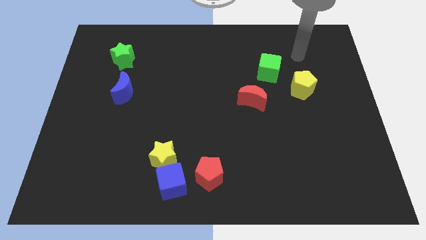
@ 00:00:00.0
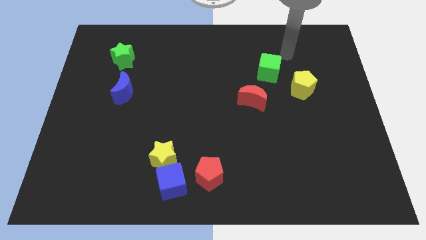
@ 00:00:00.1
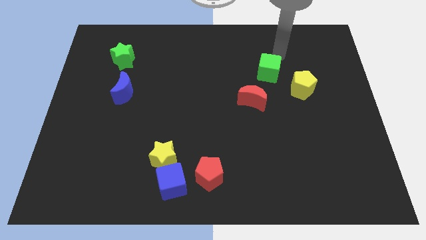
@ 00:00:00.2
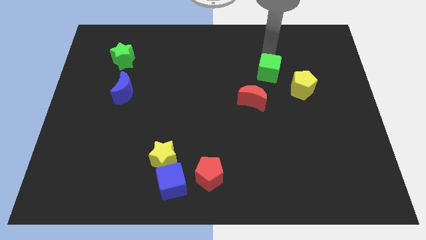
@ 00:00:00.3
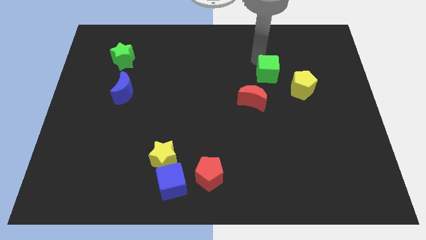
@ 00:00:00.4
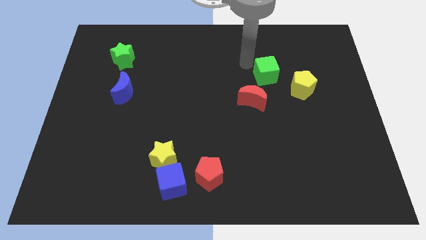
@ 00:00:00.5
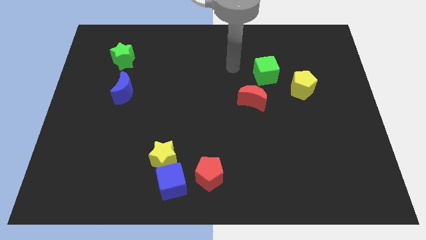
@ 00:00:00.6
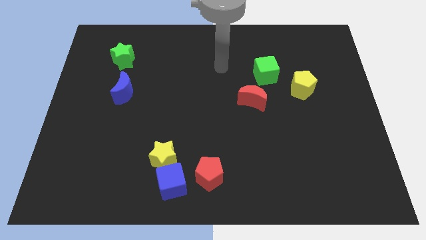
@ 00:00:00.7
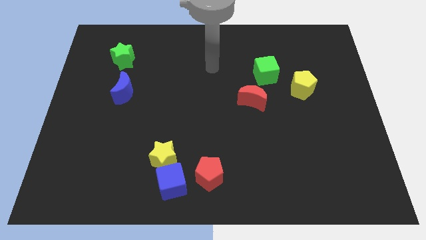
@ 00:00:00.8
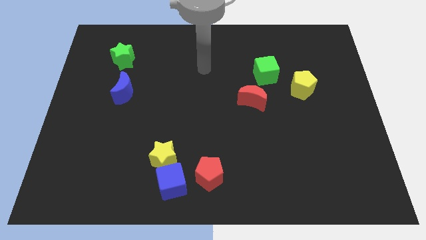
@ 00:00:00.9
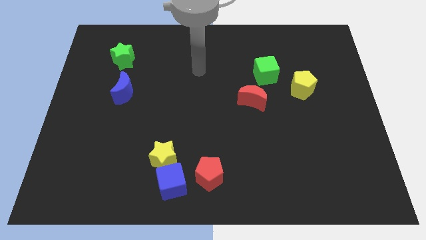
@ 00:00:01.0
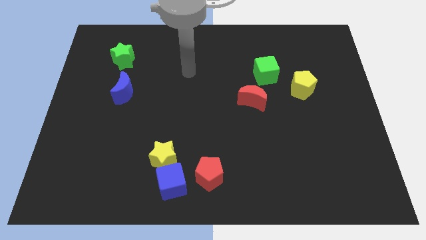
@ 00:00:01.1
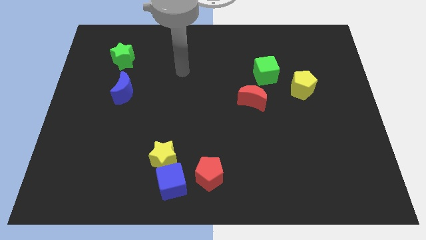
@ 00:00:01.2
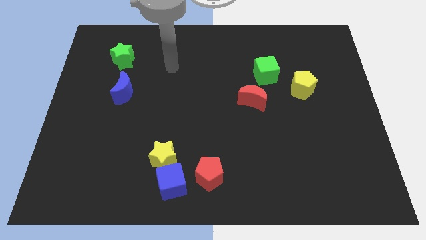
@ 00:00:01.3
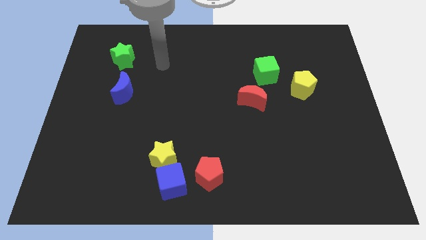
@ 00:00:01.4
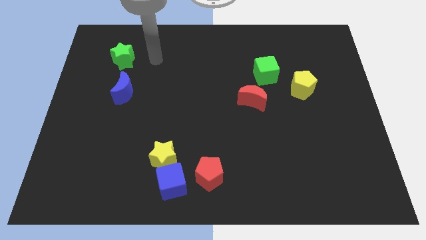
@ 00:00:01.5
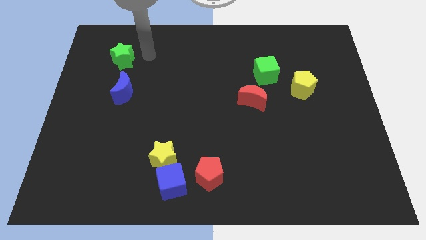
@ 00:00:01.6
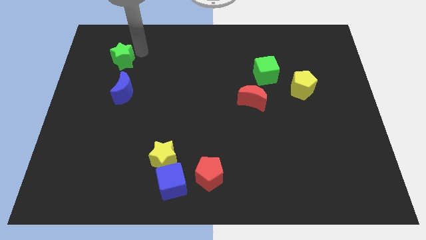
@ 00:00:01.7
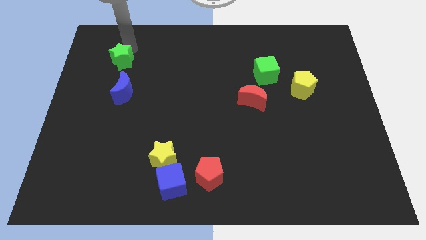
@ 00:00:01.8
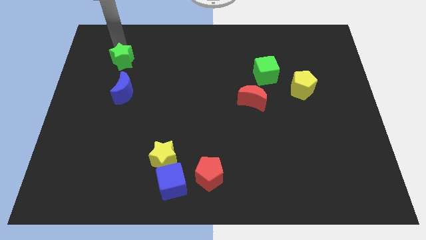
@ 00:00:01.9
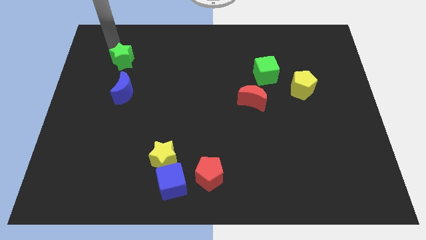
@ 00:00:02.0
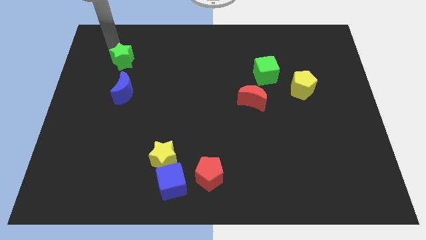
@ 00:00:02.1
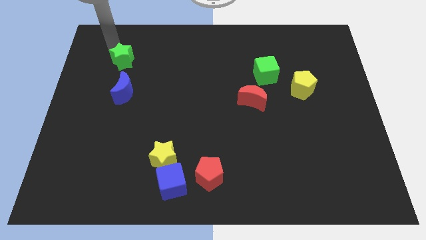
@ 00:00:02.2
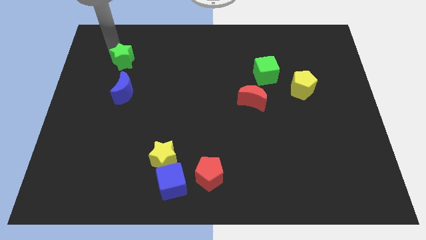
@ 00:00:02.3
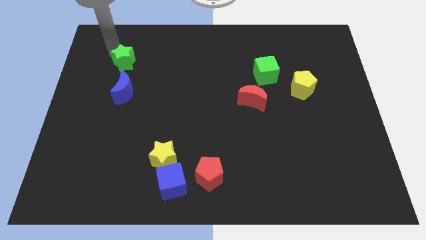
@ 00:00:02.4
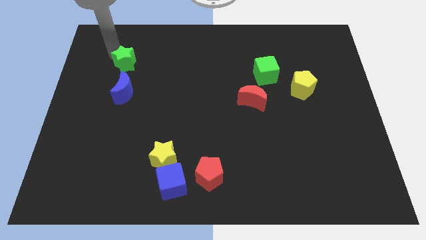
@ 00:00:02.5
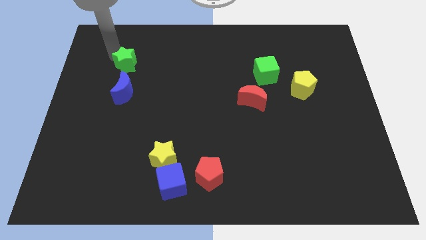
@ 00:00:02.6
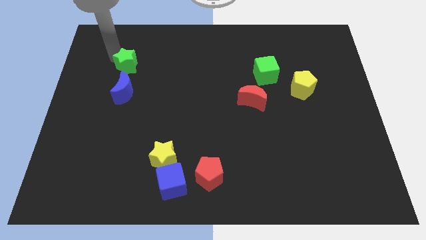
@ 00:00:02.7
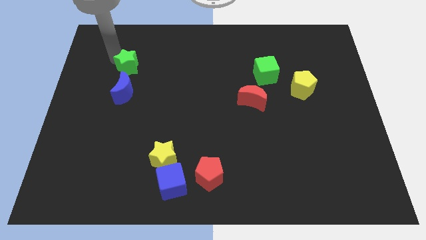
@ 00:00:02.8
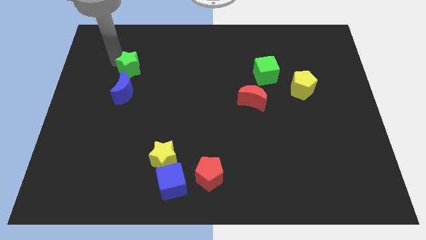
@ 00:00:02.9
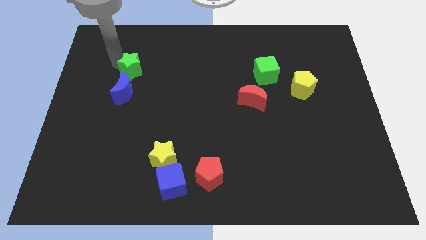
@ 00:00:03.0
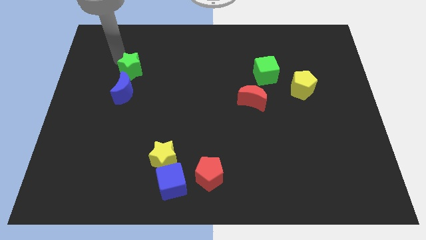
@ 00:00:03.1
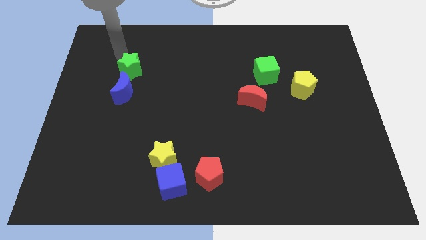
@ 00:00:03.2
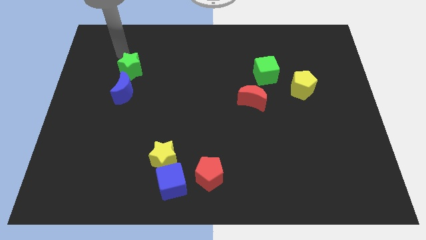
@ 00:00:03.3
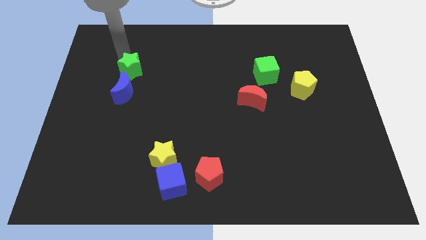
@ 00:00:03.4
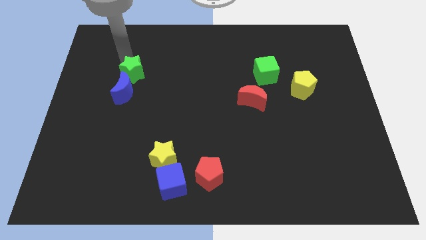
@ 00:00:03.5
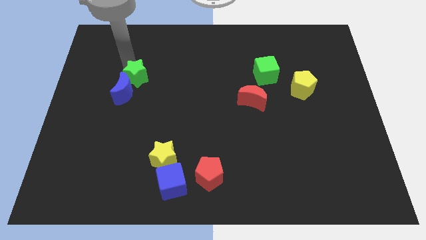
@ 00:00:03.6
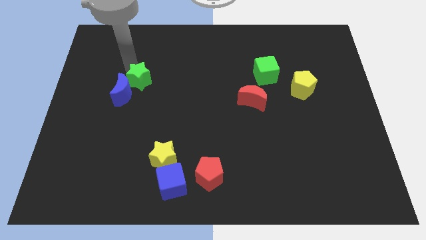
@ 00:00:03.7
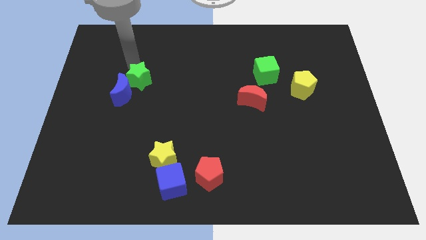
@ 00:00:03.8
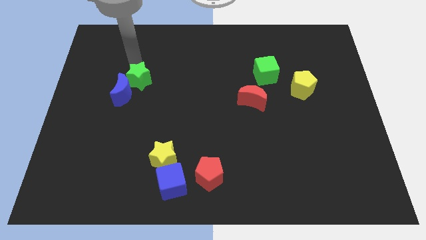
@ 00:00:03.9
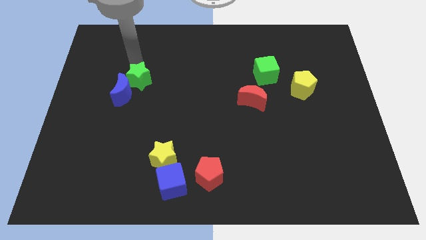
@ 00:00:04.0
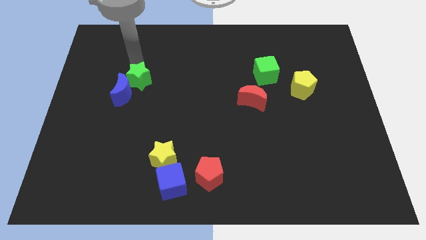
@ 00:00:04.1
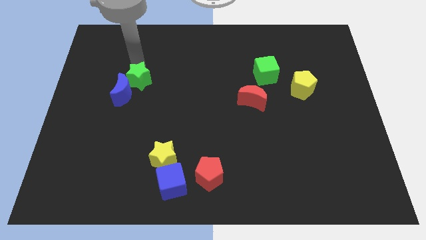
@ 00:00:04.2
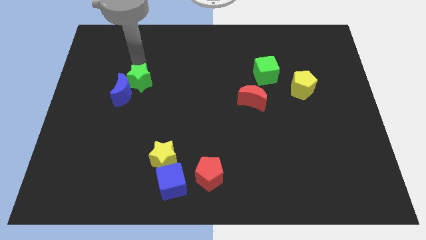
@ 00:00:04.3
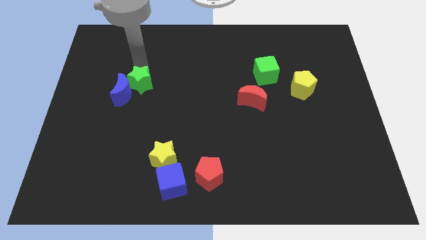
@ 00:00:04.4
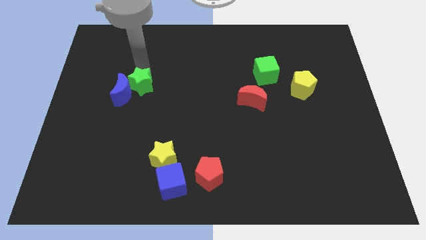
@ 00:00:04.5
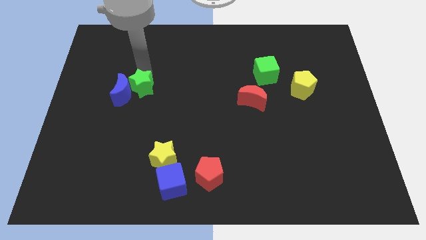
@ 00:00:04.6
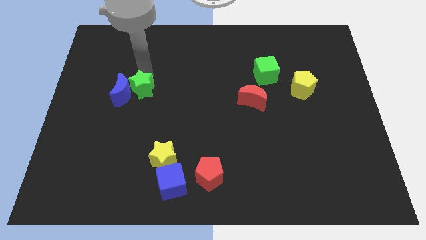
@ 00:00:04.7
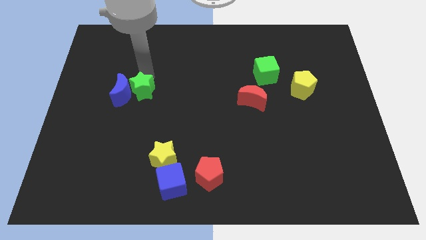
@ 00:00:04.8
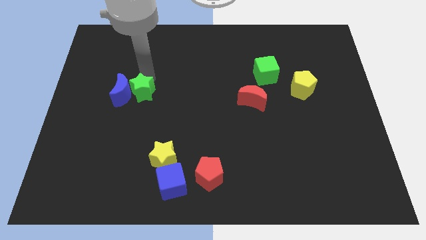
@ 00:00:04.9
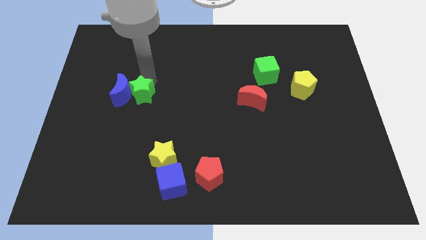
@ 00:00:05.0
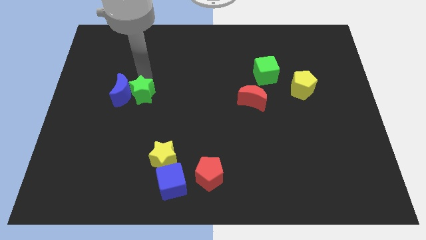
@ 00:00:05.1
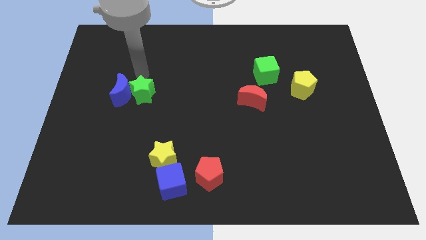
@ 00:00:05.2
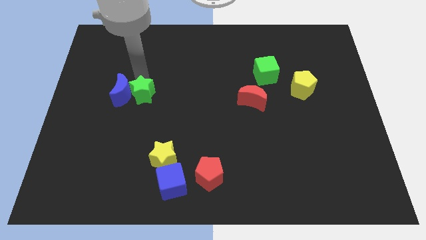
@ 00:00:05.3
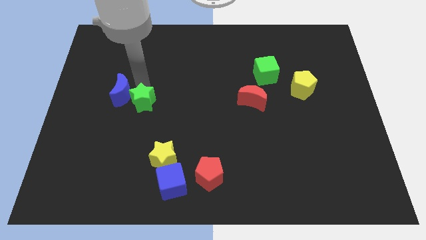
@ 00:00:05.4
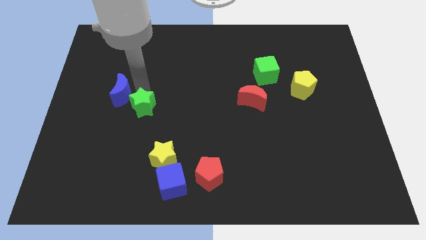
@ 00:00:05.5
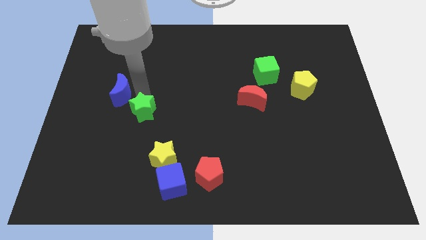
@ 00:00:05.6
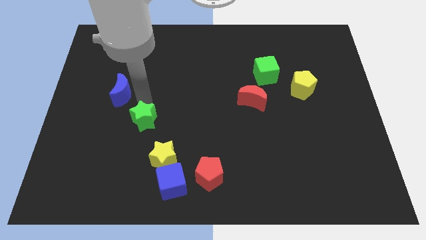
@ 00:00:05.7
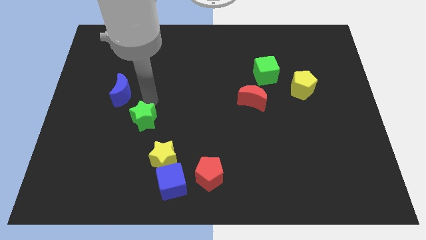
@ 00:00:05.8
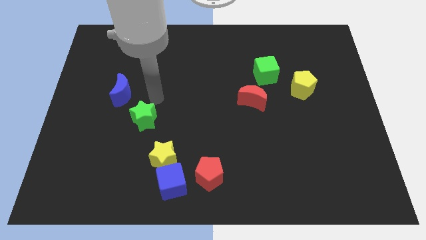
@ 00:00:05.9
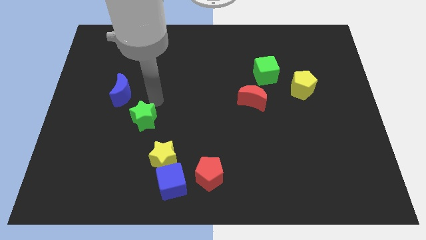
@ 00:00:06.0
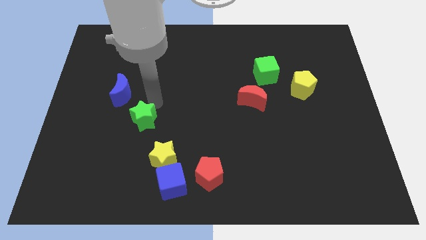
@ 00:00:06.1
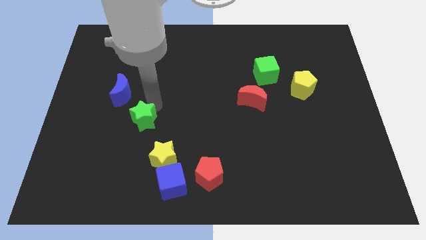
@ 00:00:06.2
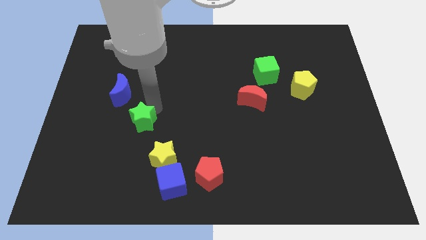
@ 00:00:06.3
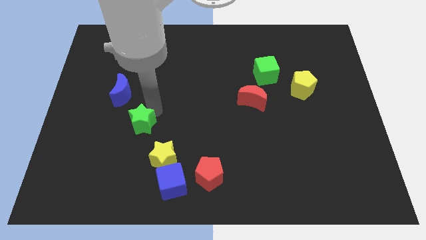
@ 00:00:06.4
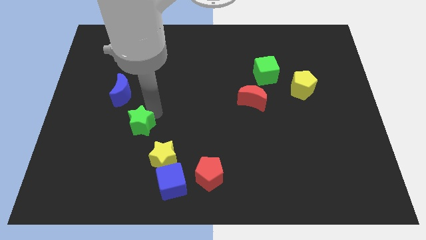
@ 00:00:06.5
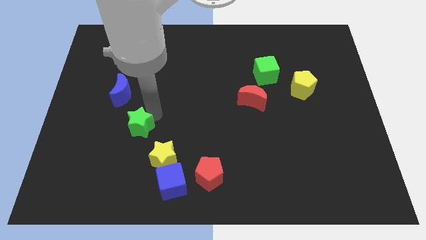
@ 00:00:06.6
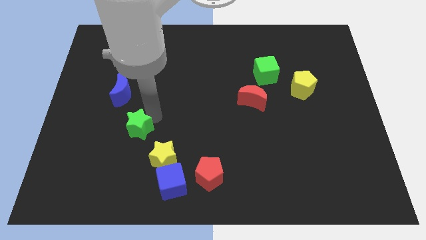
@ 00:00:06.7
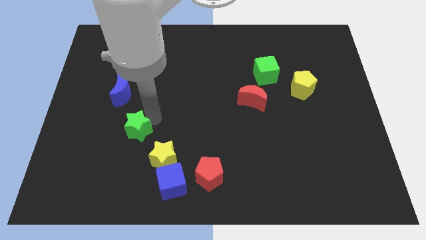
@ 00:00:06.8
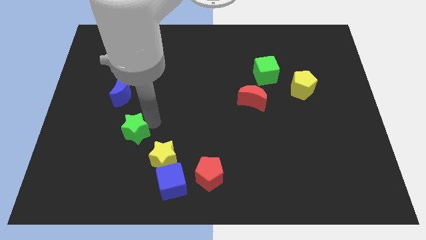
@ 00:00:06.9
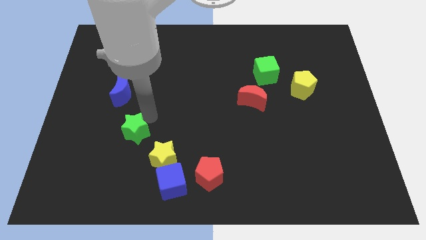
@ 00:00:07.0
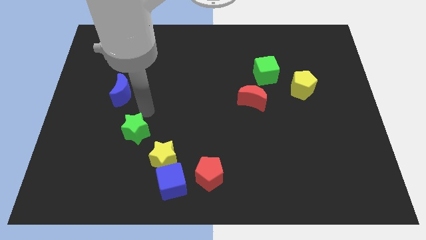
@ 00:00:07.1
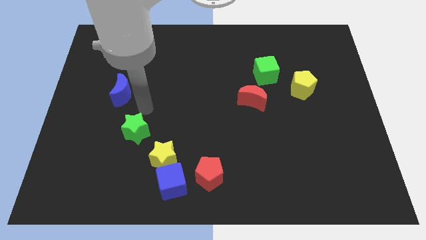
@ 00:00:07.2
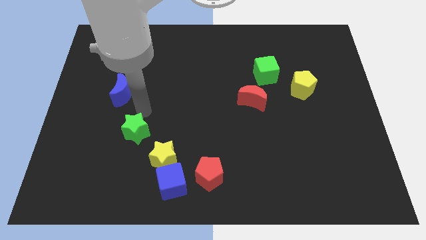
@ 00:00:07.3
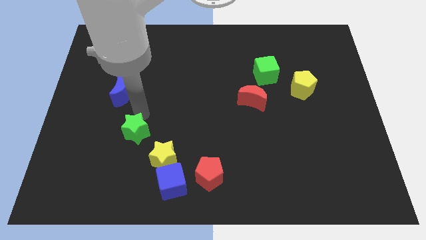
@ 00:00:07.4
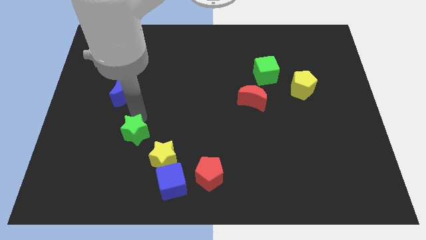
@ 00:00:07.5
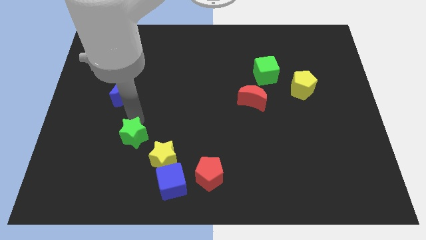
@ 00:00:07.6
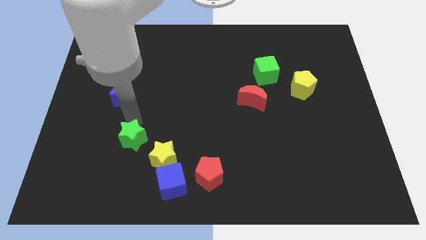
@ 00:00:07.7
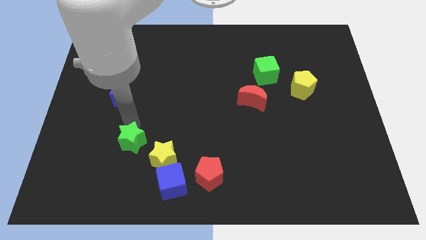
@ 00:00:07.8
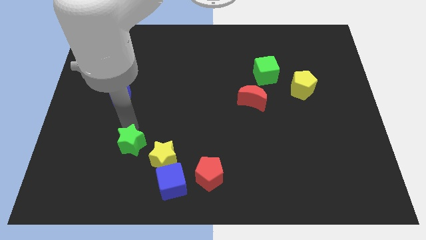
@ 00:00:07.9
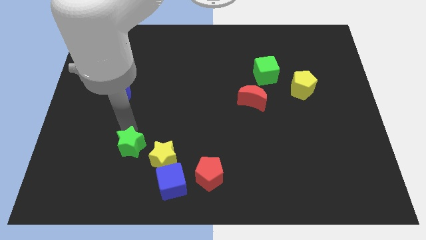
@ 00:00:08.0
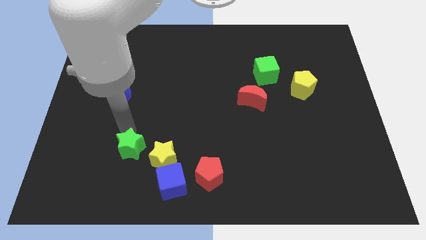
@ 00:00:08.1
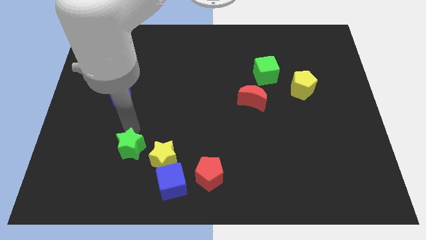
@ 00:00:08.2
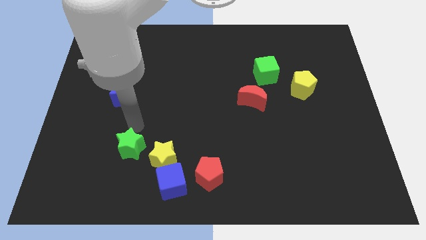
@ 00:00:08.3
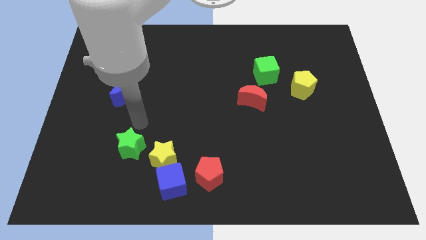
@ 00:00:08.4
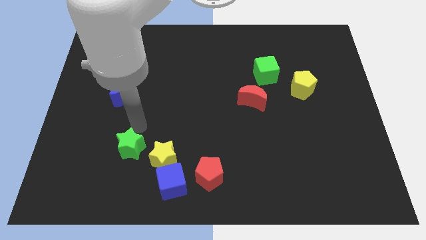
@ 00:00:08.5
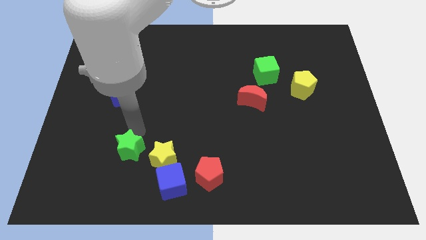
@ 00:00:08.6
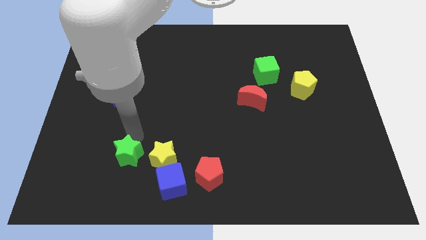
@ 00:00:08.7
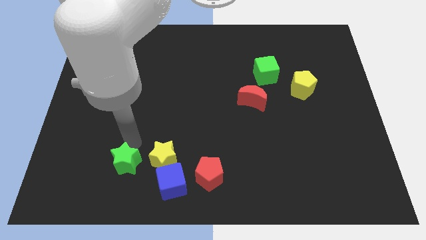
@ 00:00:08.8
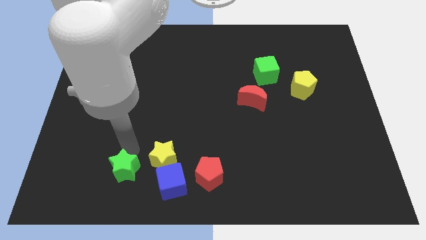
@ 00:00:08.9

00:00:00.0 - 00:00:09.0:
push the green star left of the blue cube
